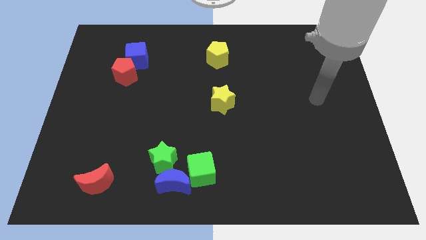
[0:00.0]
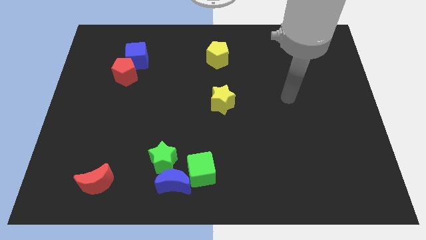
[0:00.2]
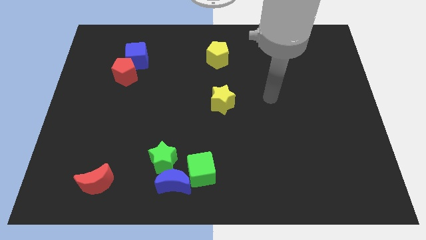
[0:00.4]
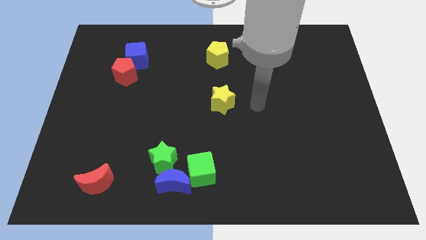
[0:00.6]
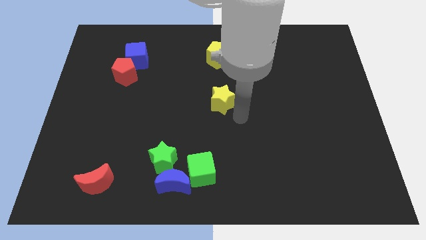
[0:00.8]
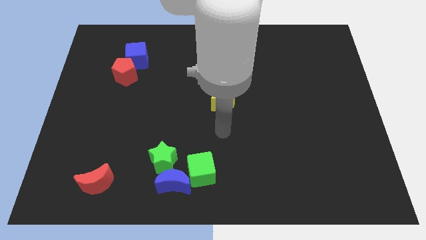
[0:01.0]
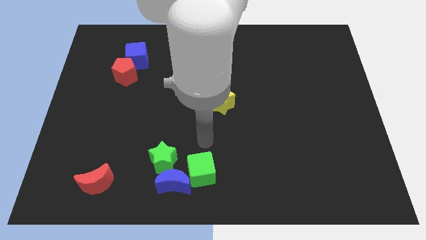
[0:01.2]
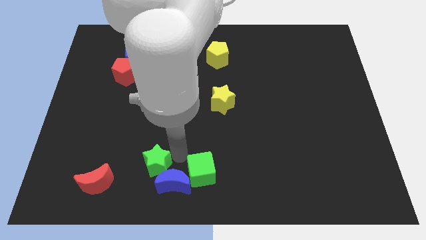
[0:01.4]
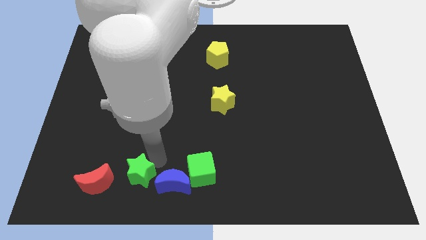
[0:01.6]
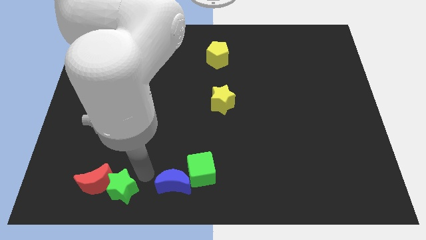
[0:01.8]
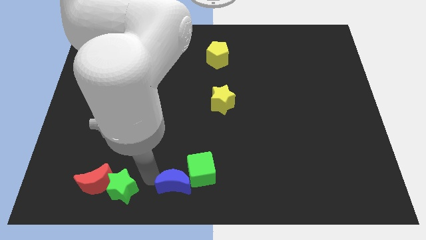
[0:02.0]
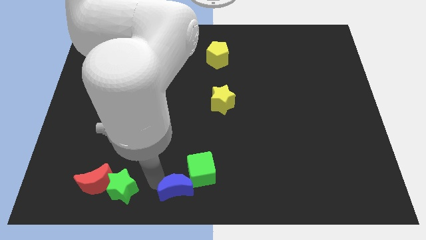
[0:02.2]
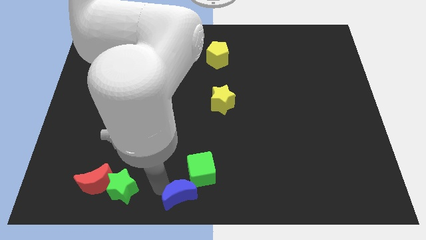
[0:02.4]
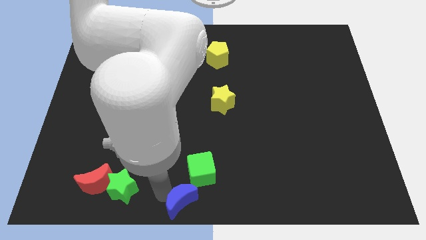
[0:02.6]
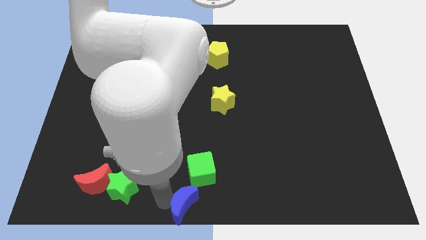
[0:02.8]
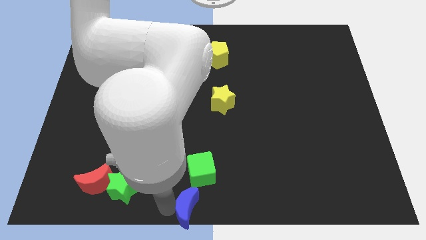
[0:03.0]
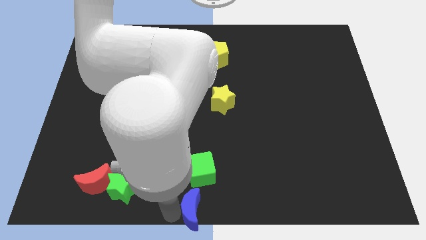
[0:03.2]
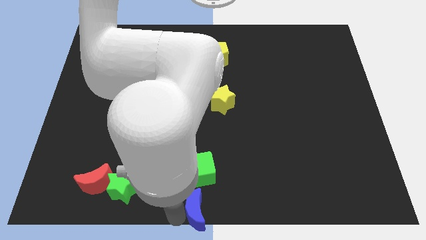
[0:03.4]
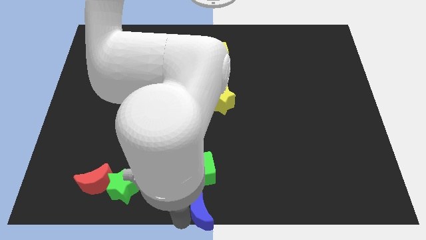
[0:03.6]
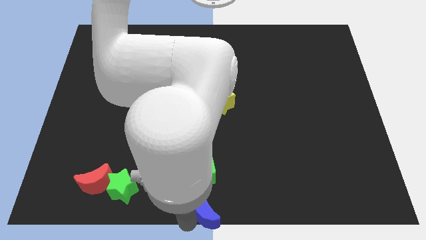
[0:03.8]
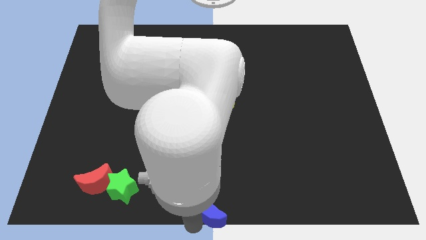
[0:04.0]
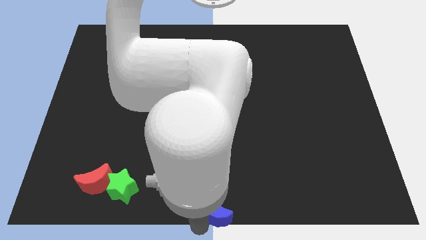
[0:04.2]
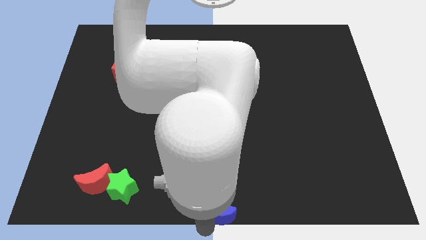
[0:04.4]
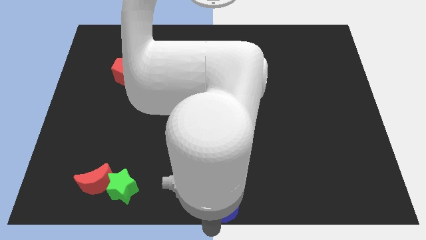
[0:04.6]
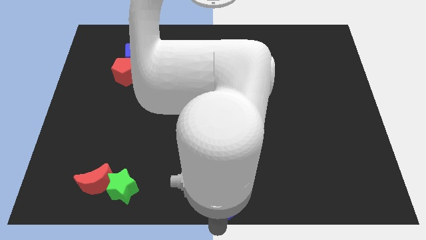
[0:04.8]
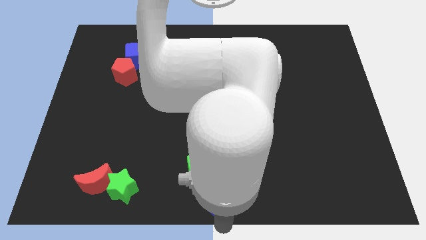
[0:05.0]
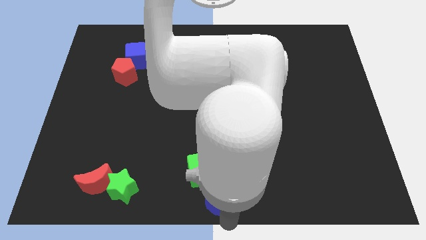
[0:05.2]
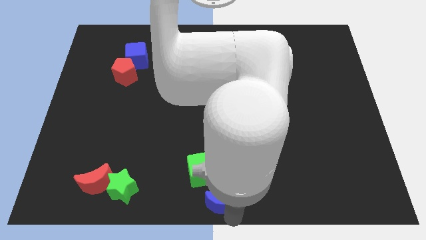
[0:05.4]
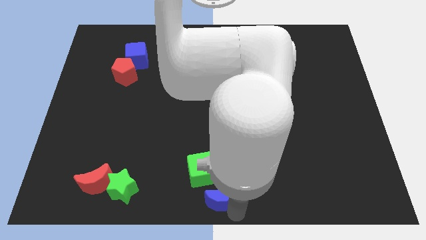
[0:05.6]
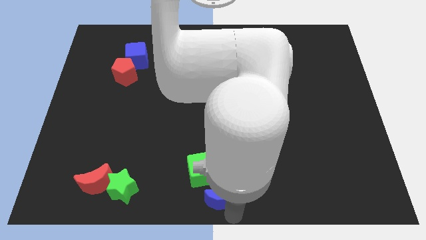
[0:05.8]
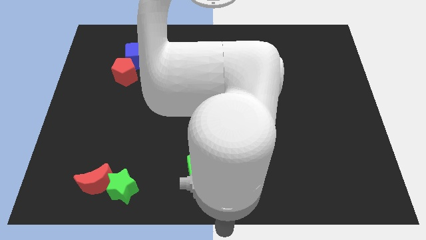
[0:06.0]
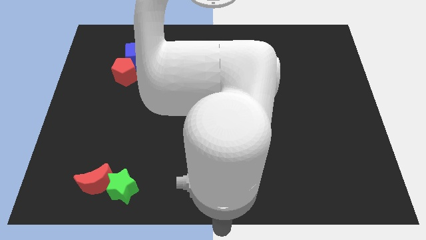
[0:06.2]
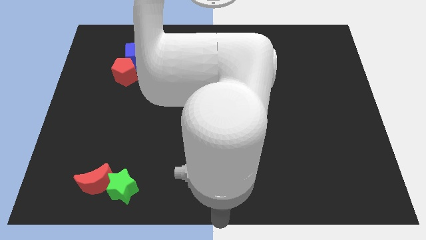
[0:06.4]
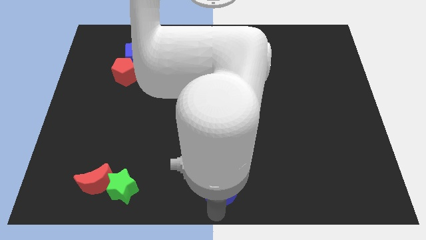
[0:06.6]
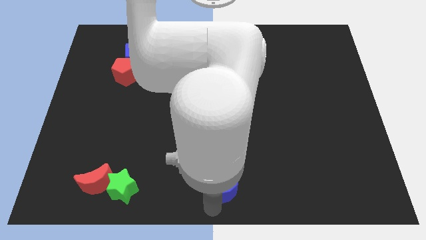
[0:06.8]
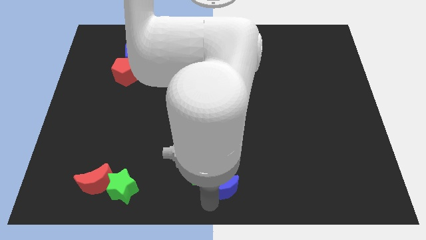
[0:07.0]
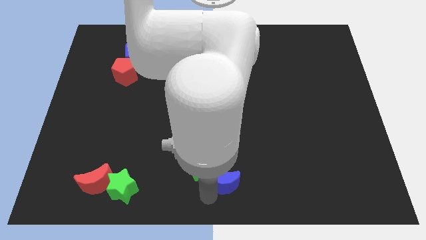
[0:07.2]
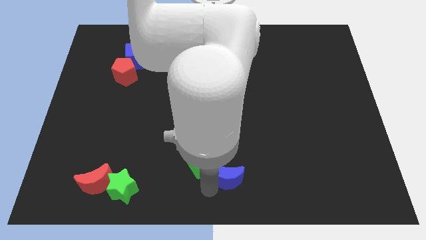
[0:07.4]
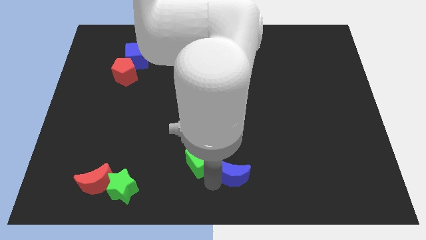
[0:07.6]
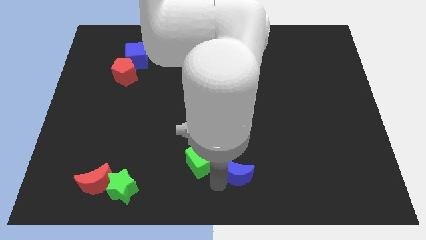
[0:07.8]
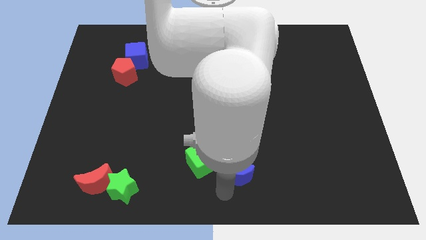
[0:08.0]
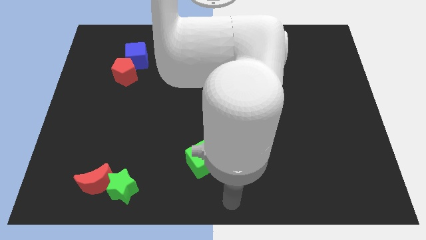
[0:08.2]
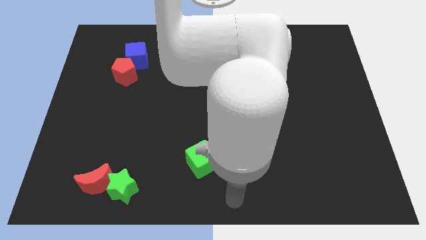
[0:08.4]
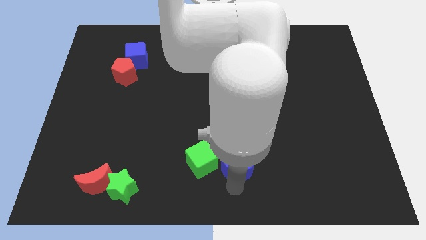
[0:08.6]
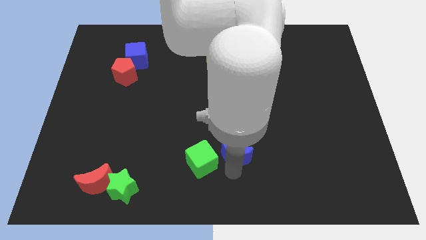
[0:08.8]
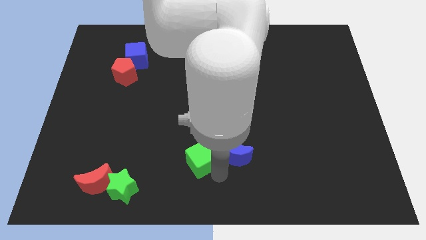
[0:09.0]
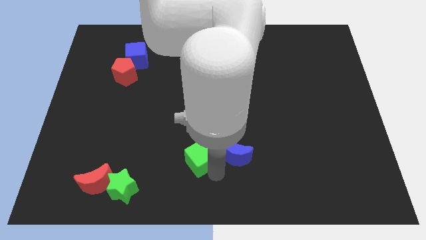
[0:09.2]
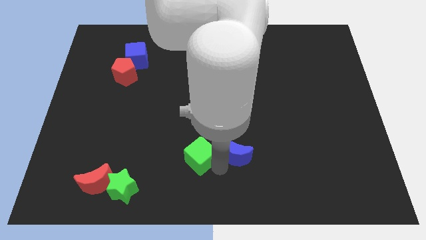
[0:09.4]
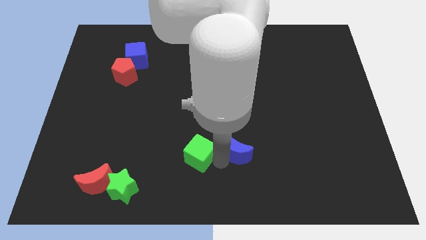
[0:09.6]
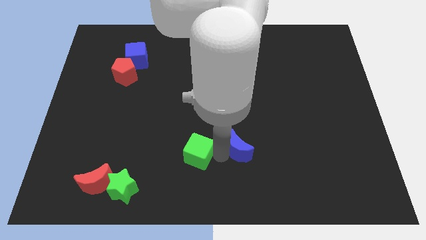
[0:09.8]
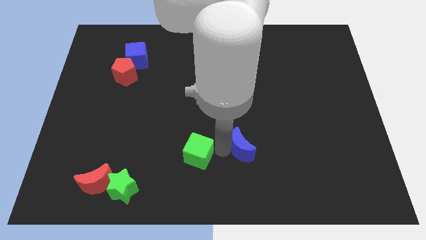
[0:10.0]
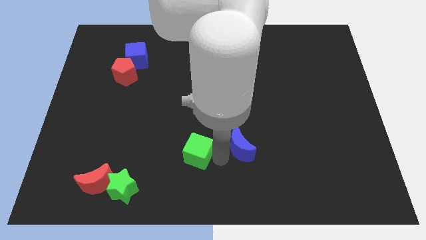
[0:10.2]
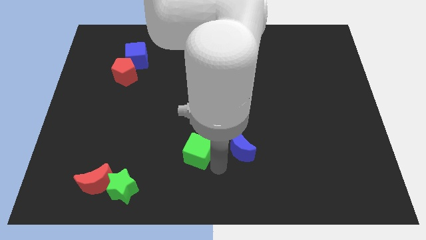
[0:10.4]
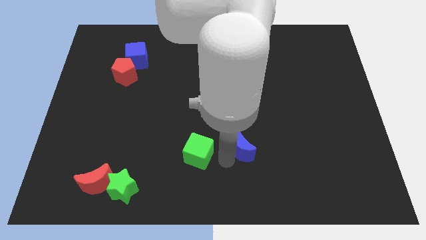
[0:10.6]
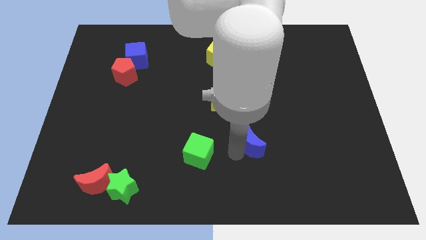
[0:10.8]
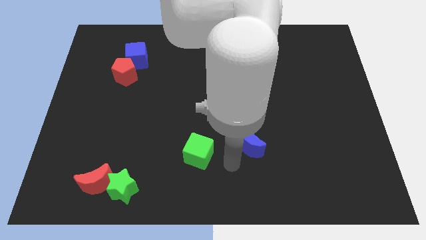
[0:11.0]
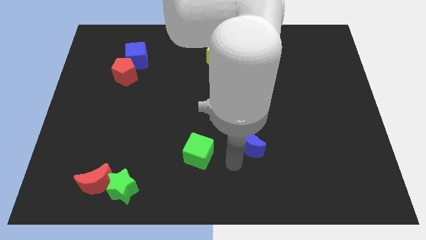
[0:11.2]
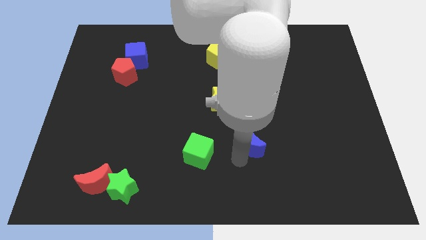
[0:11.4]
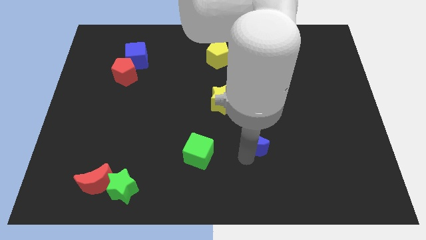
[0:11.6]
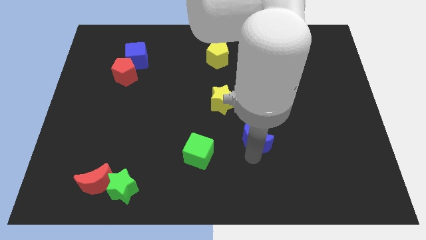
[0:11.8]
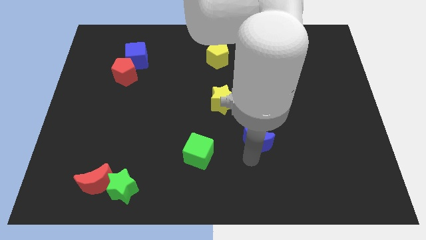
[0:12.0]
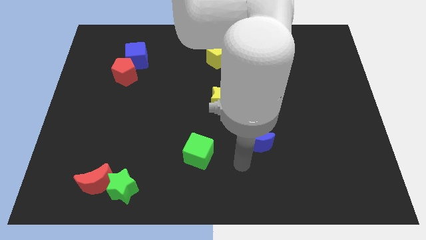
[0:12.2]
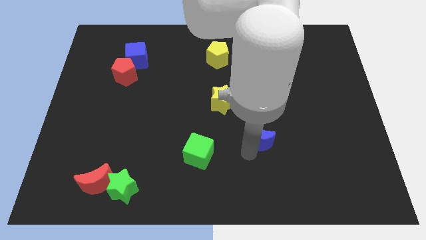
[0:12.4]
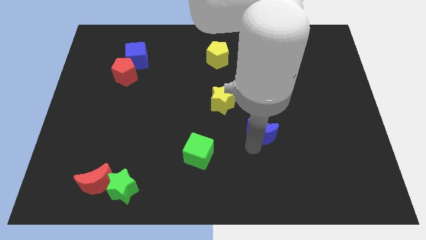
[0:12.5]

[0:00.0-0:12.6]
push the blue moon upwards and then right

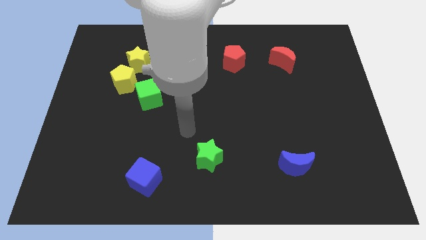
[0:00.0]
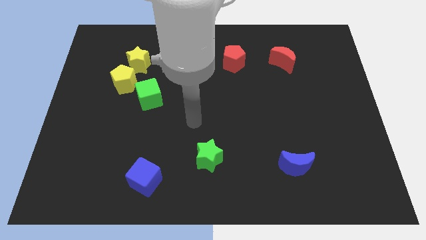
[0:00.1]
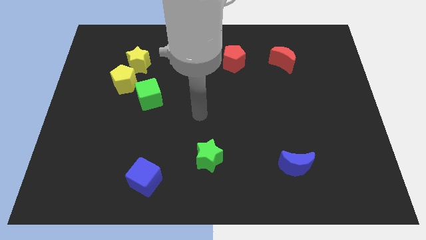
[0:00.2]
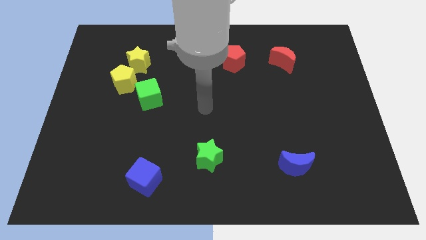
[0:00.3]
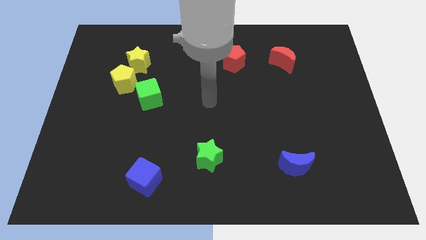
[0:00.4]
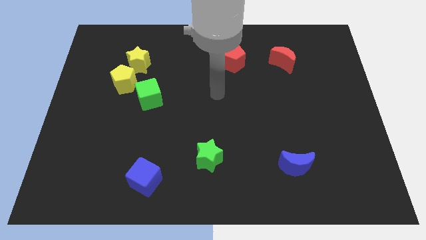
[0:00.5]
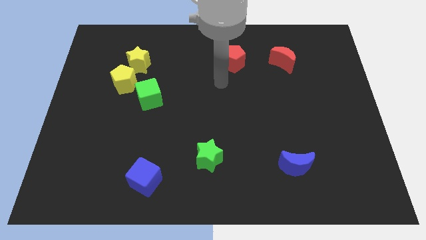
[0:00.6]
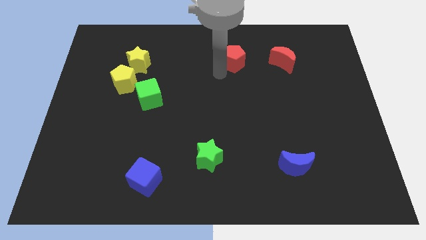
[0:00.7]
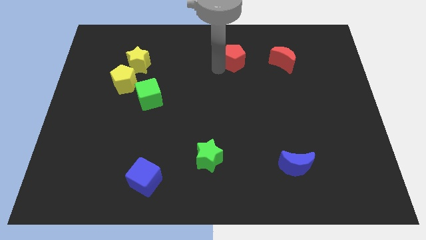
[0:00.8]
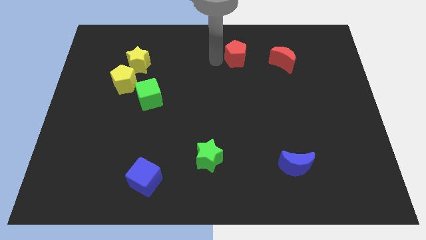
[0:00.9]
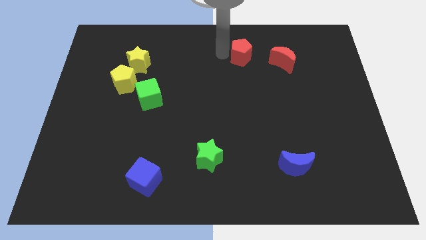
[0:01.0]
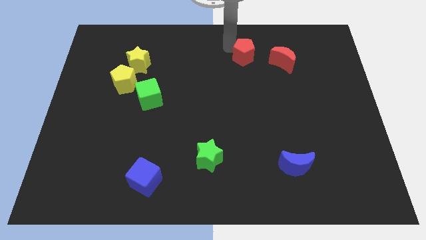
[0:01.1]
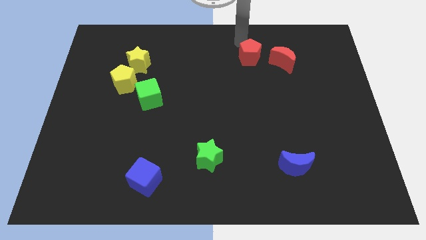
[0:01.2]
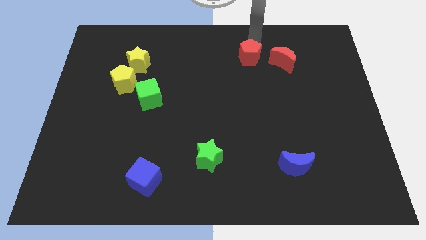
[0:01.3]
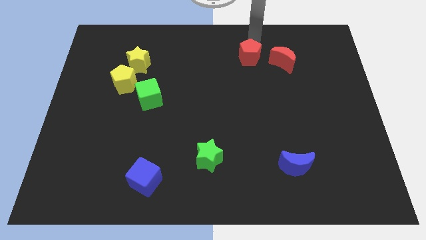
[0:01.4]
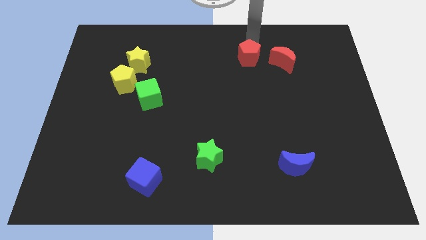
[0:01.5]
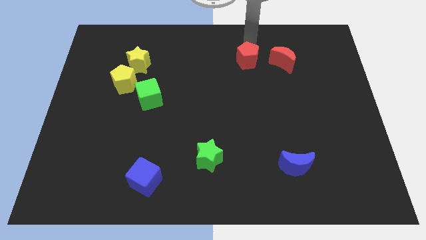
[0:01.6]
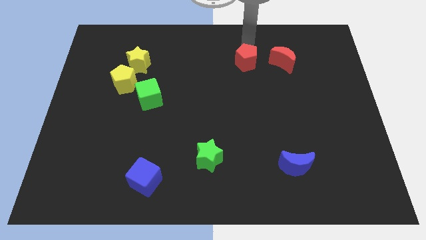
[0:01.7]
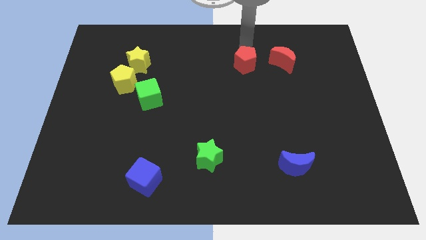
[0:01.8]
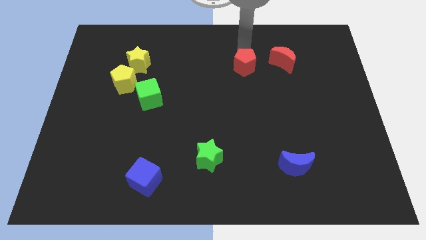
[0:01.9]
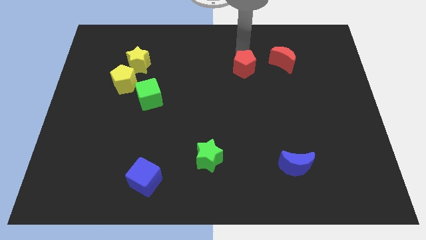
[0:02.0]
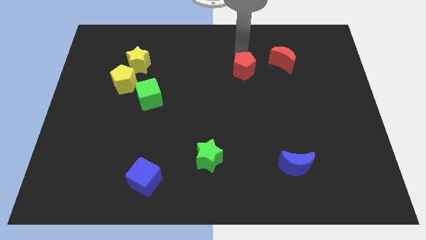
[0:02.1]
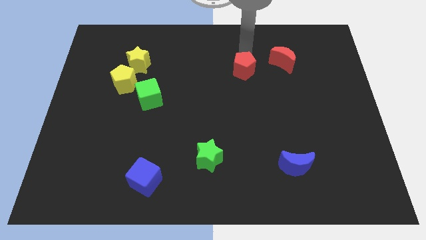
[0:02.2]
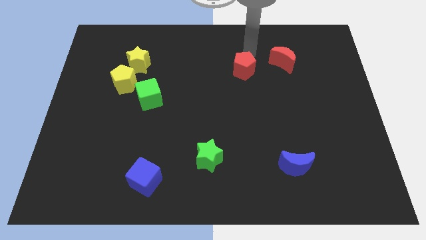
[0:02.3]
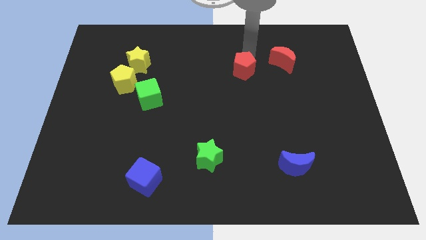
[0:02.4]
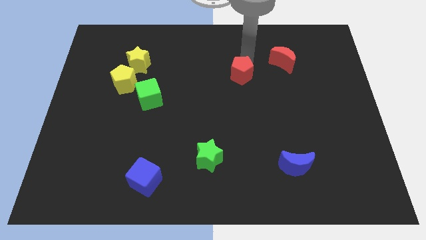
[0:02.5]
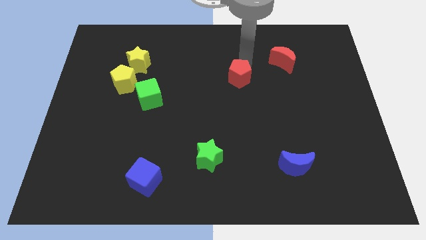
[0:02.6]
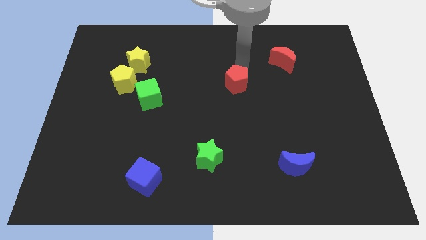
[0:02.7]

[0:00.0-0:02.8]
push the red pentagon down a bit
